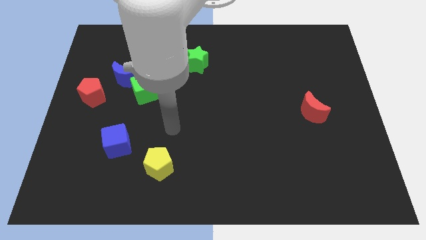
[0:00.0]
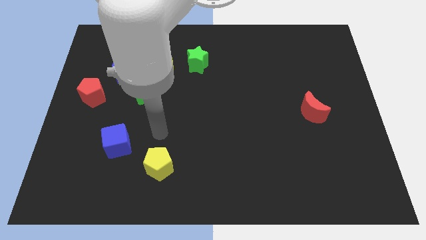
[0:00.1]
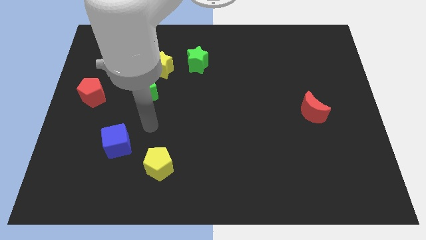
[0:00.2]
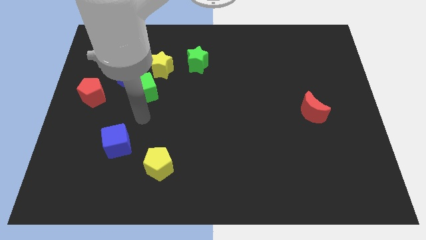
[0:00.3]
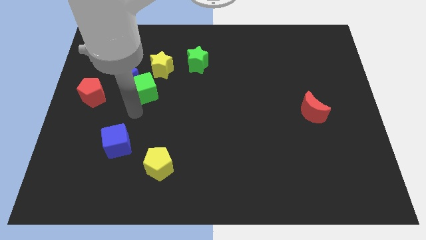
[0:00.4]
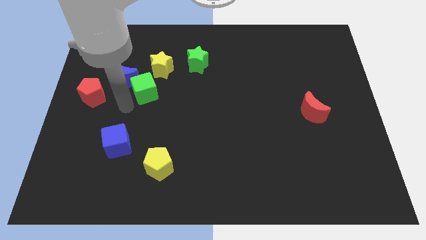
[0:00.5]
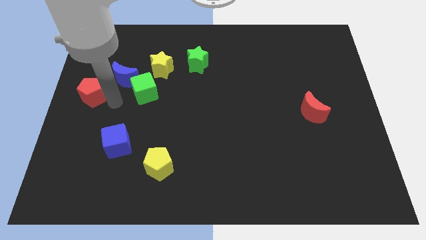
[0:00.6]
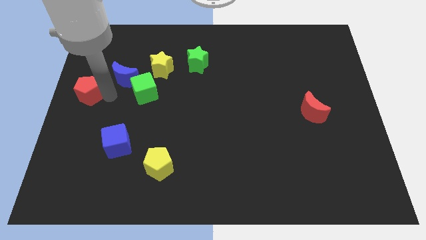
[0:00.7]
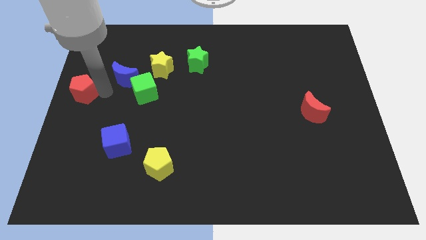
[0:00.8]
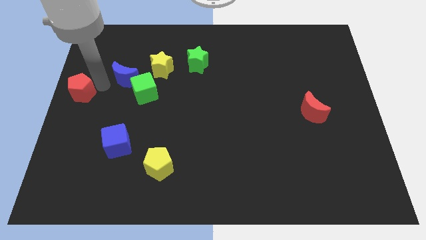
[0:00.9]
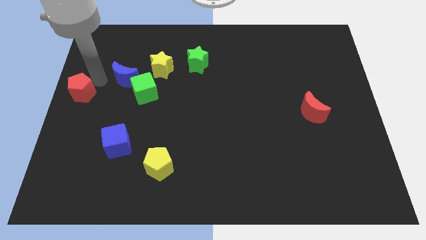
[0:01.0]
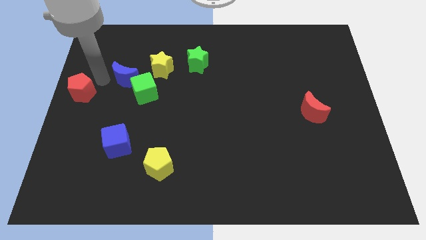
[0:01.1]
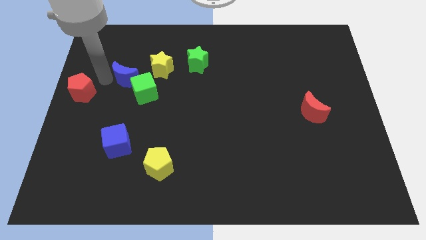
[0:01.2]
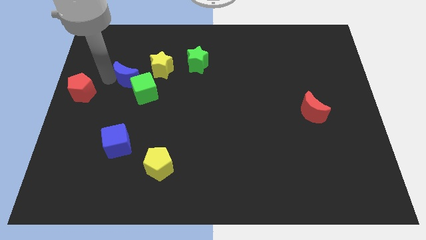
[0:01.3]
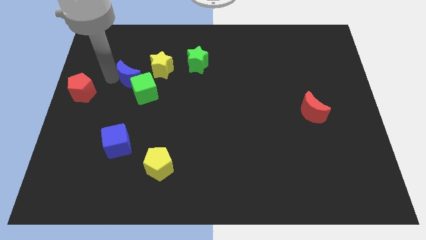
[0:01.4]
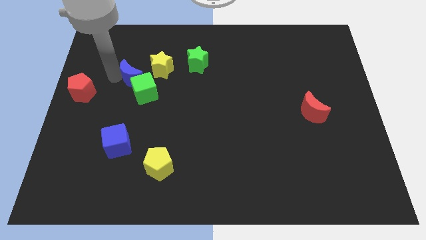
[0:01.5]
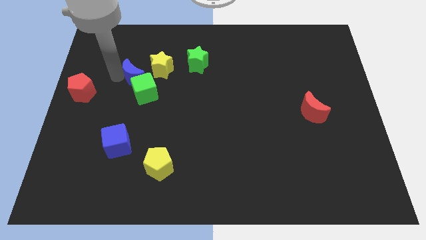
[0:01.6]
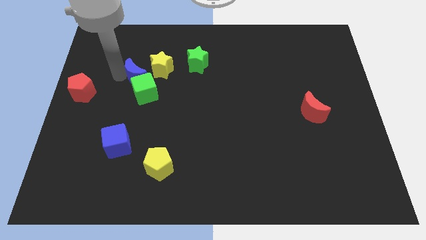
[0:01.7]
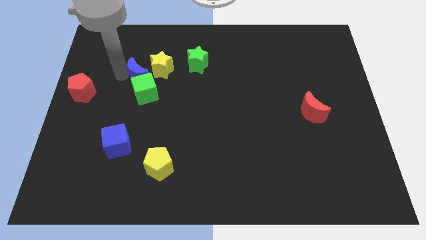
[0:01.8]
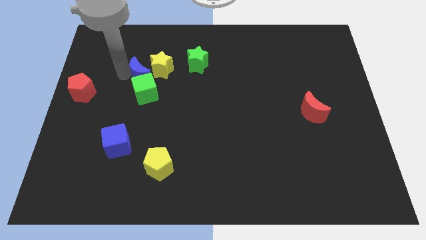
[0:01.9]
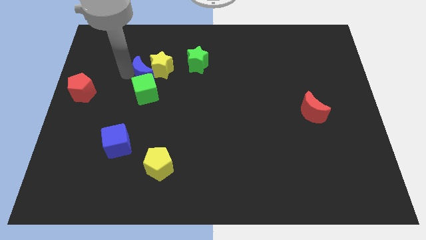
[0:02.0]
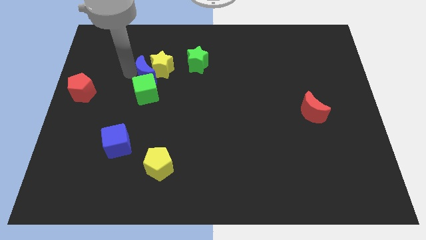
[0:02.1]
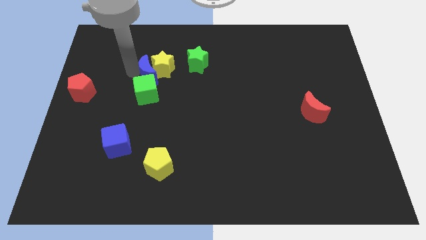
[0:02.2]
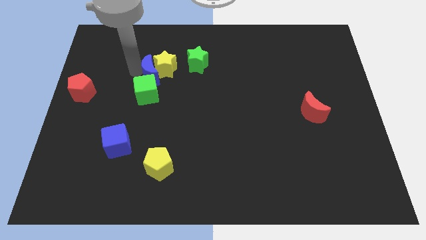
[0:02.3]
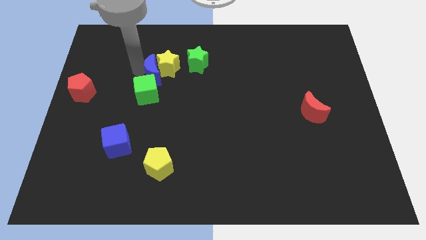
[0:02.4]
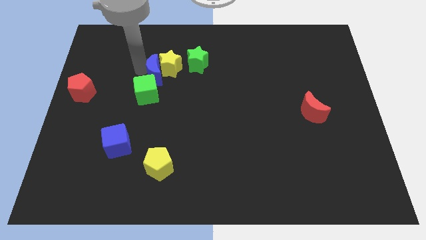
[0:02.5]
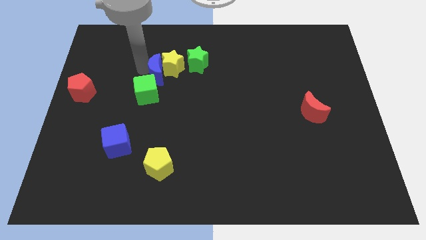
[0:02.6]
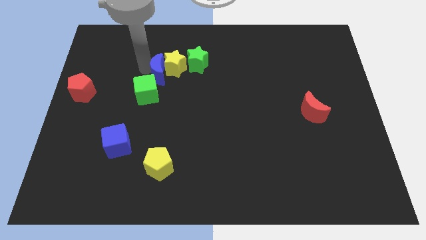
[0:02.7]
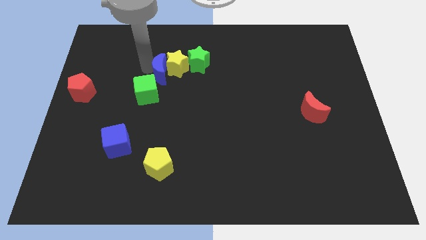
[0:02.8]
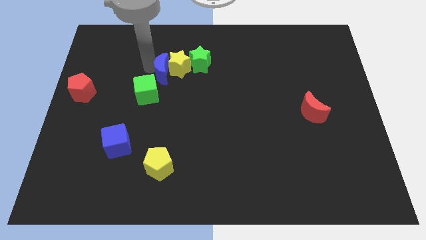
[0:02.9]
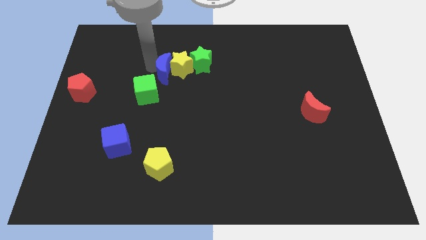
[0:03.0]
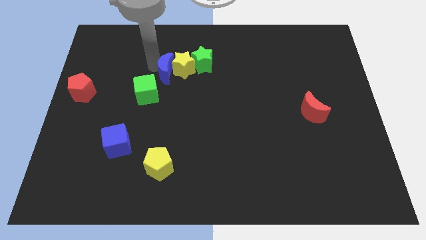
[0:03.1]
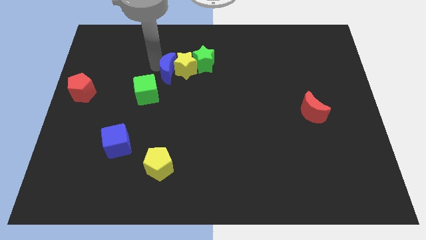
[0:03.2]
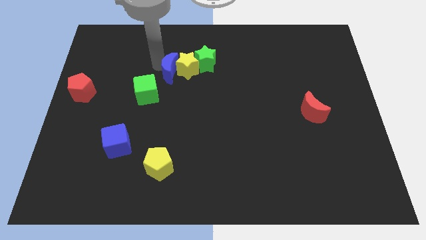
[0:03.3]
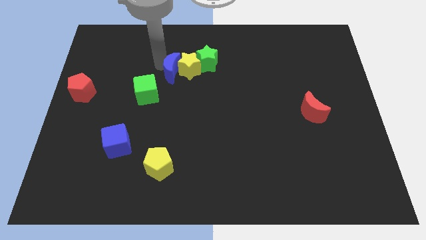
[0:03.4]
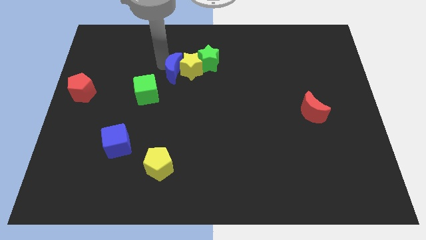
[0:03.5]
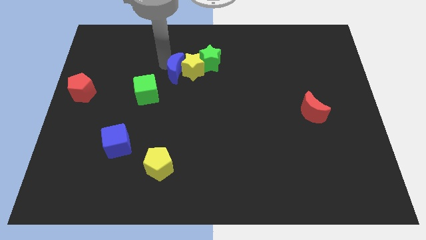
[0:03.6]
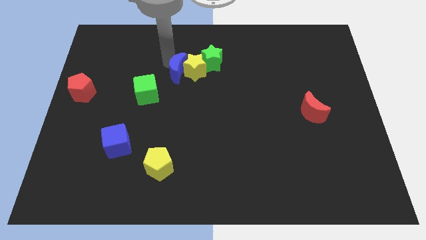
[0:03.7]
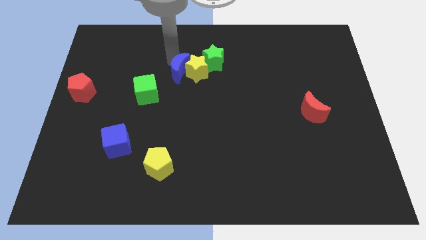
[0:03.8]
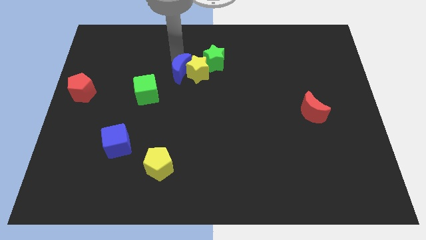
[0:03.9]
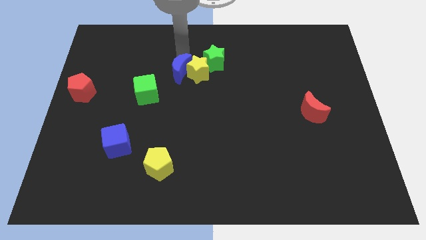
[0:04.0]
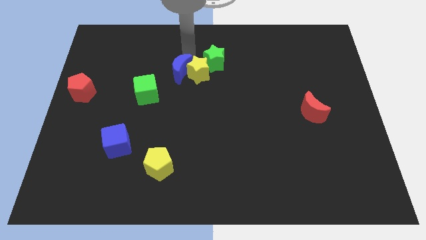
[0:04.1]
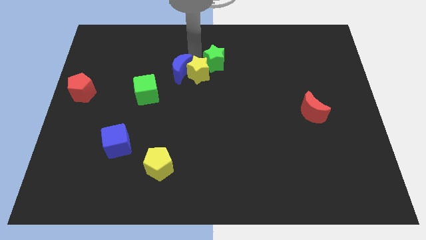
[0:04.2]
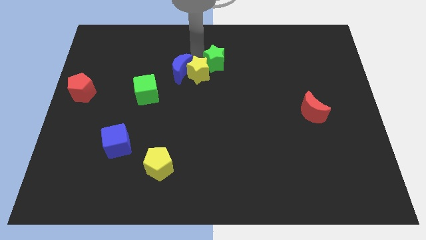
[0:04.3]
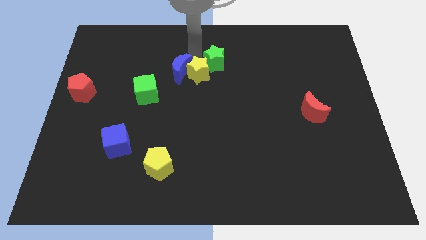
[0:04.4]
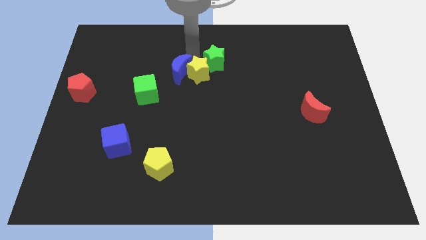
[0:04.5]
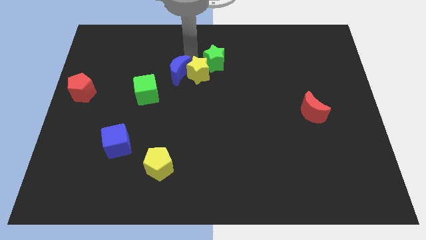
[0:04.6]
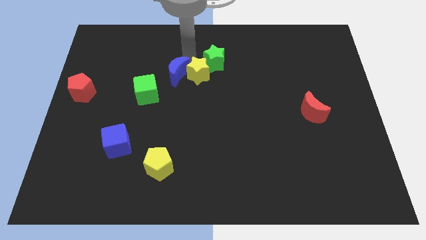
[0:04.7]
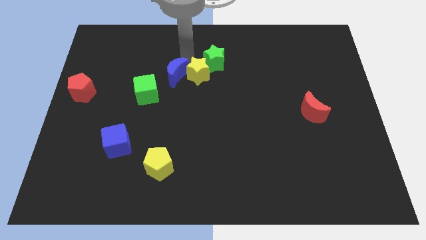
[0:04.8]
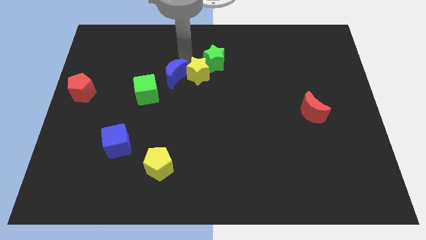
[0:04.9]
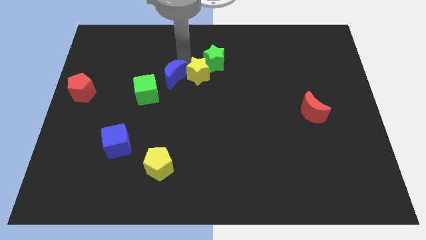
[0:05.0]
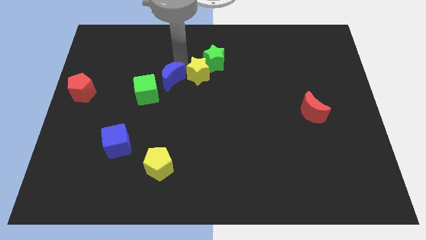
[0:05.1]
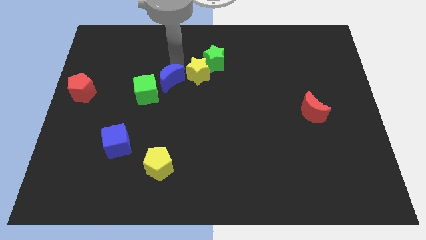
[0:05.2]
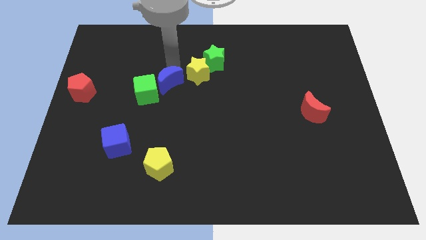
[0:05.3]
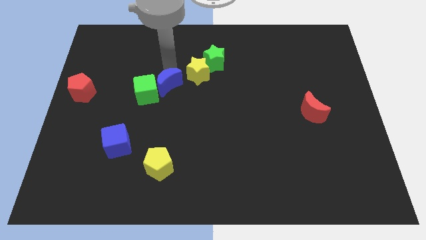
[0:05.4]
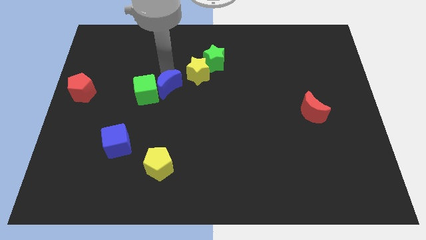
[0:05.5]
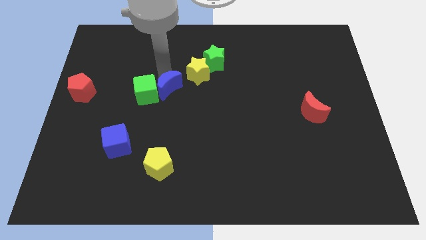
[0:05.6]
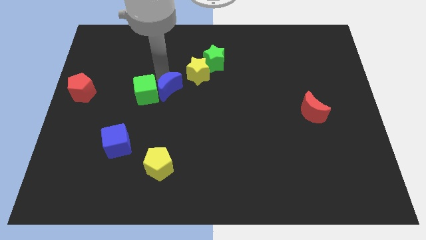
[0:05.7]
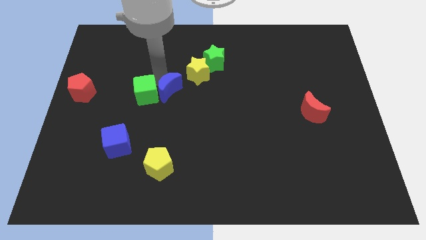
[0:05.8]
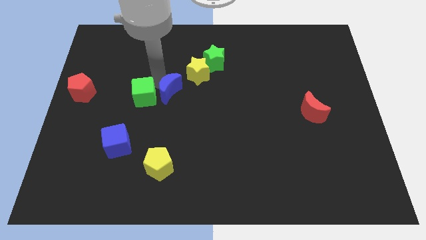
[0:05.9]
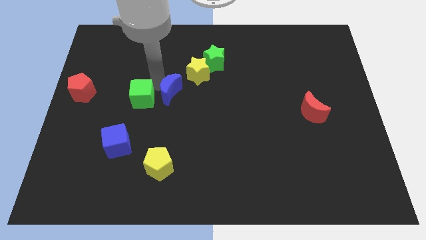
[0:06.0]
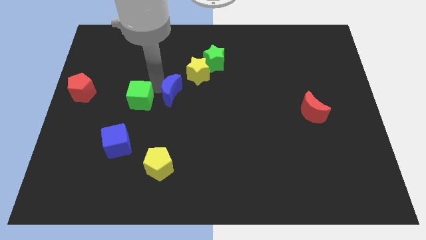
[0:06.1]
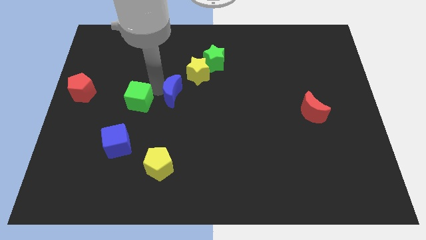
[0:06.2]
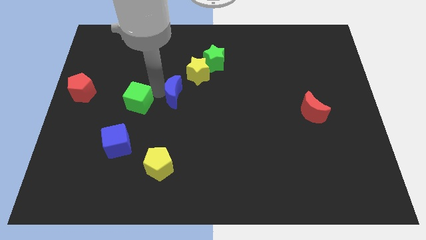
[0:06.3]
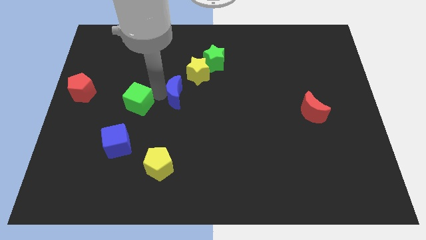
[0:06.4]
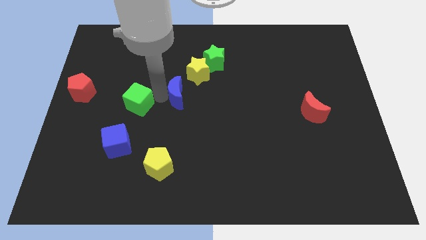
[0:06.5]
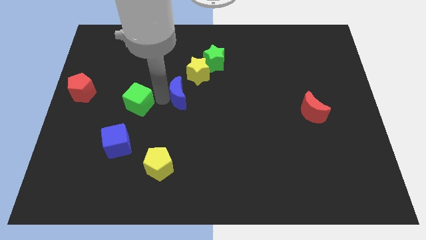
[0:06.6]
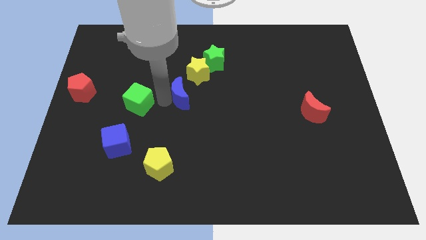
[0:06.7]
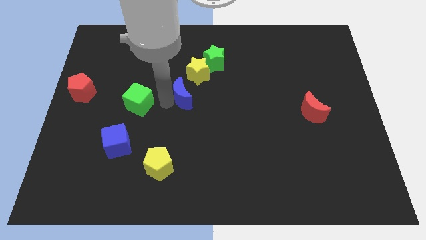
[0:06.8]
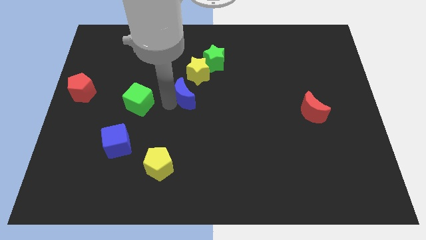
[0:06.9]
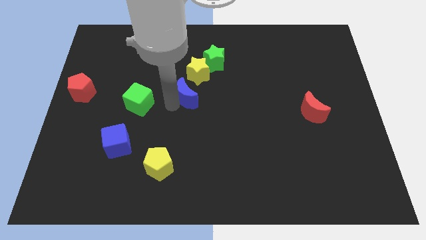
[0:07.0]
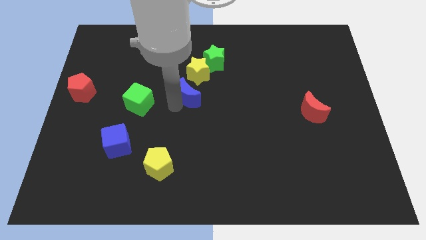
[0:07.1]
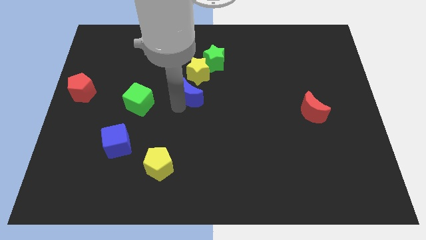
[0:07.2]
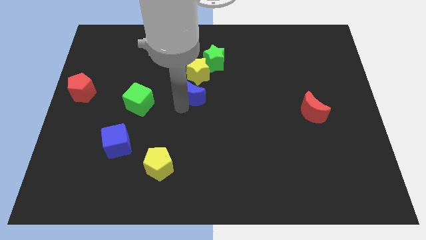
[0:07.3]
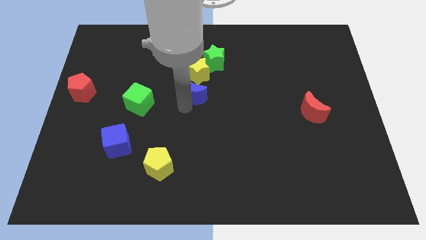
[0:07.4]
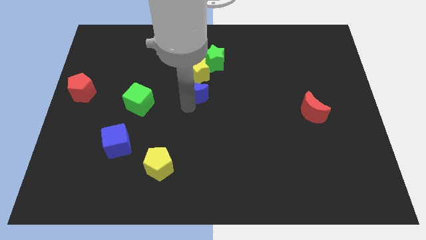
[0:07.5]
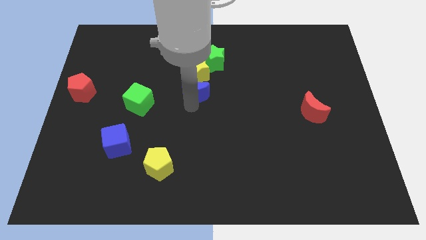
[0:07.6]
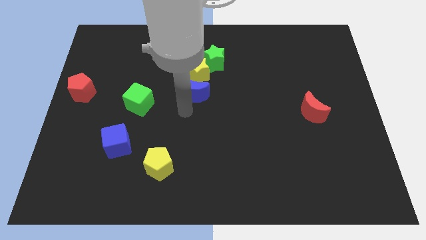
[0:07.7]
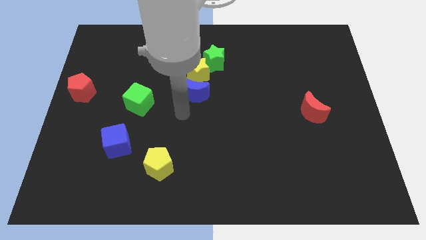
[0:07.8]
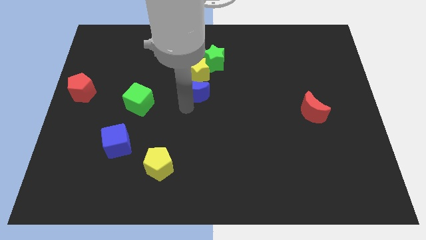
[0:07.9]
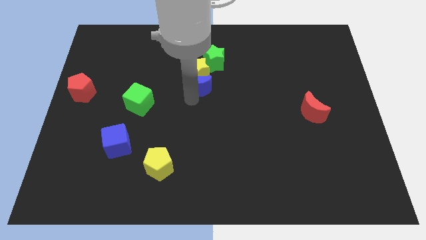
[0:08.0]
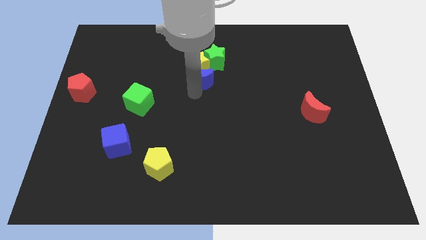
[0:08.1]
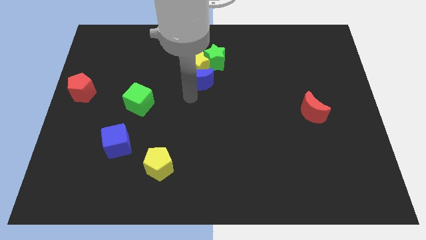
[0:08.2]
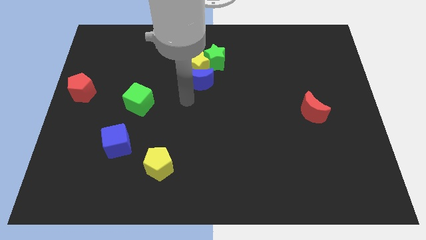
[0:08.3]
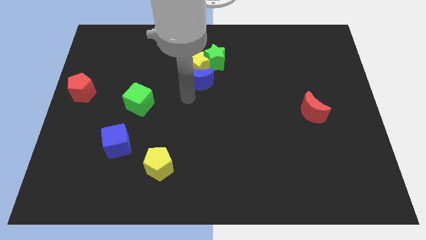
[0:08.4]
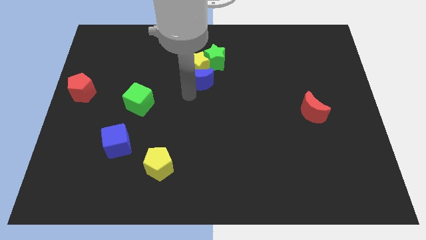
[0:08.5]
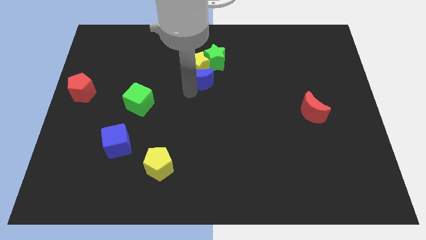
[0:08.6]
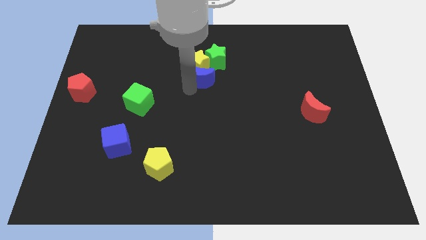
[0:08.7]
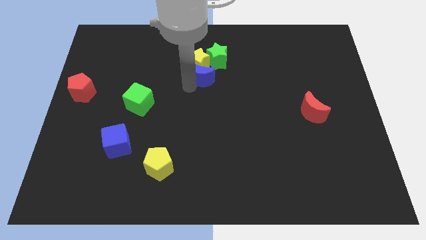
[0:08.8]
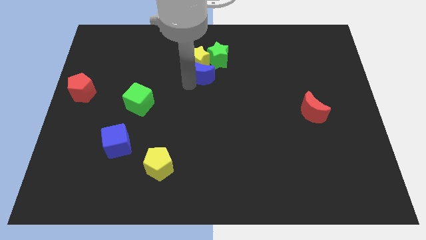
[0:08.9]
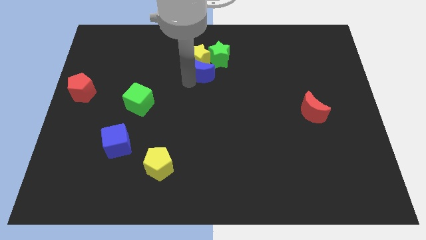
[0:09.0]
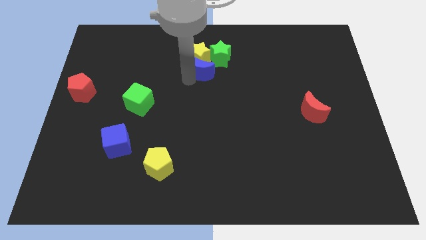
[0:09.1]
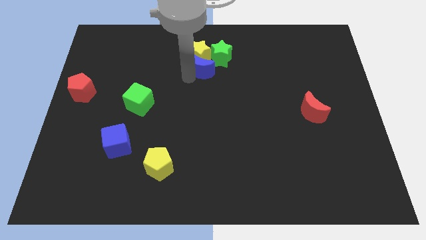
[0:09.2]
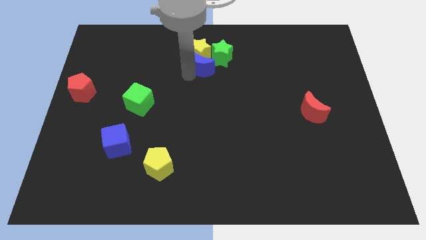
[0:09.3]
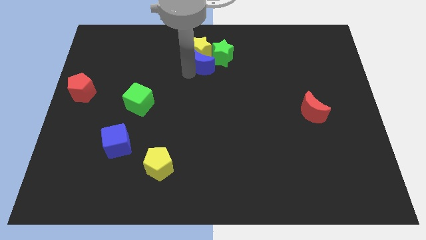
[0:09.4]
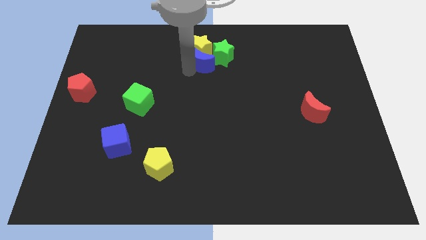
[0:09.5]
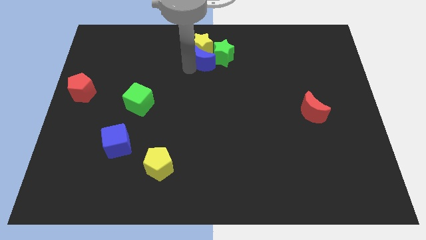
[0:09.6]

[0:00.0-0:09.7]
put the blue moon to the green star
